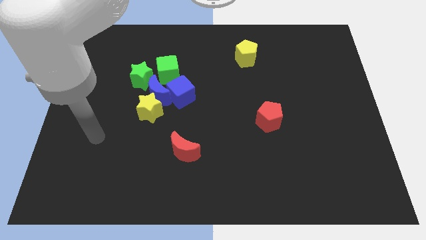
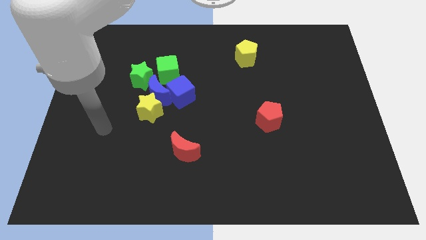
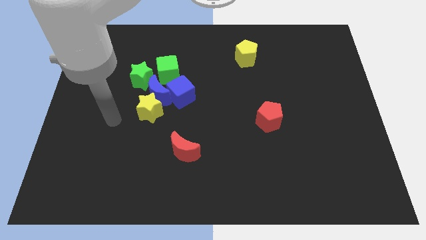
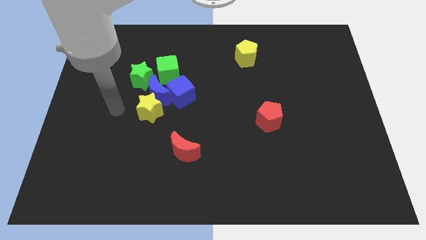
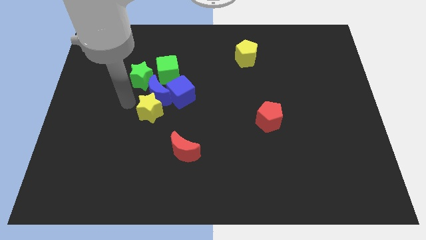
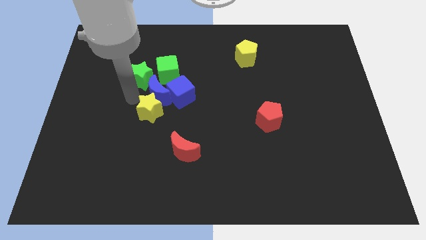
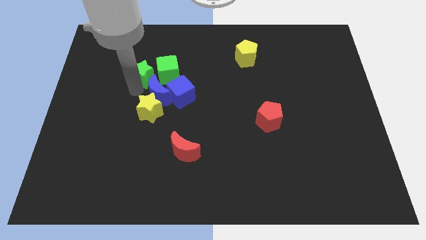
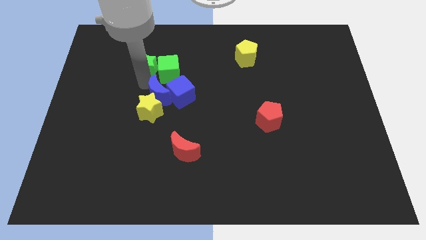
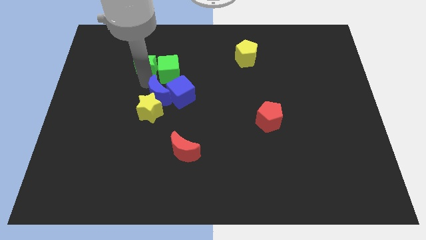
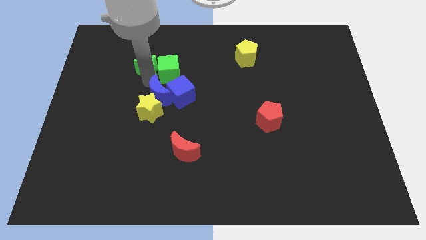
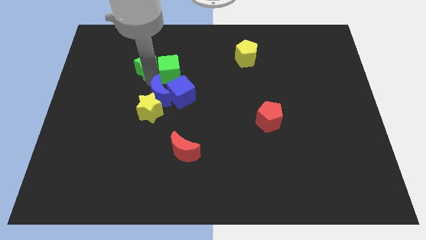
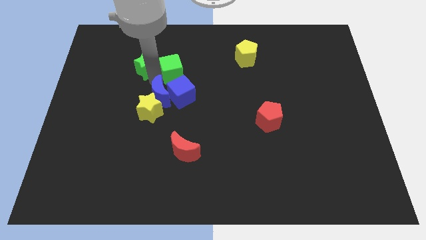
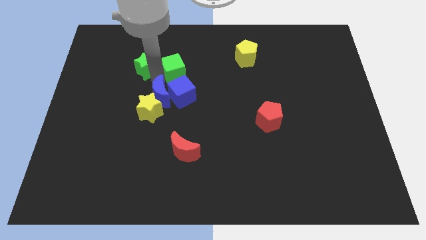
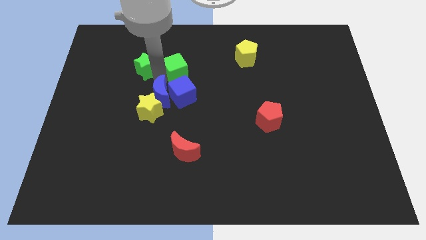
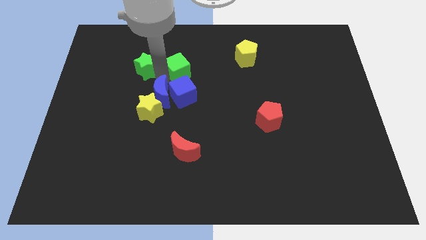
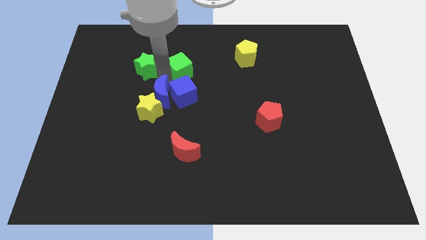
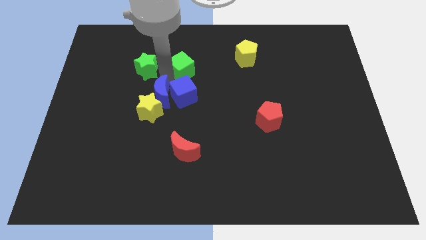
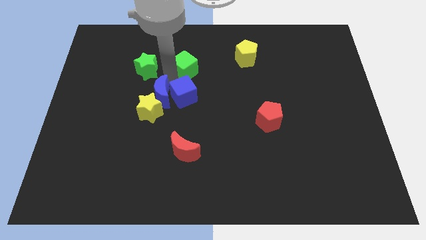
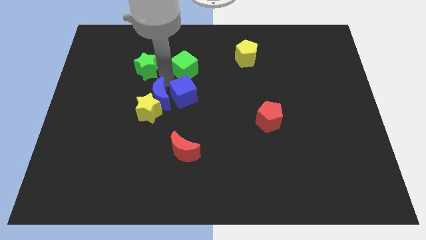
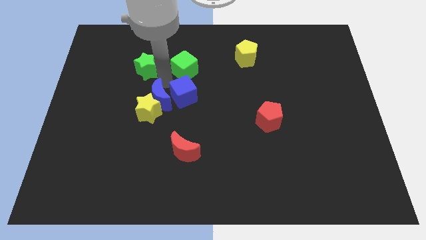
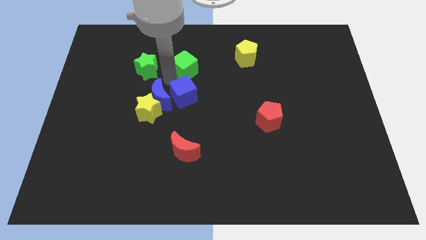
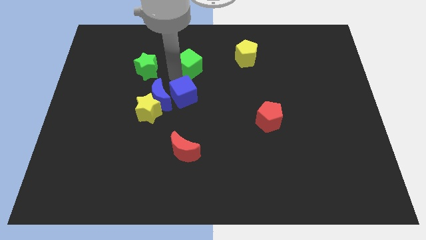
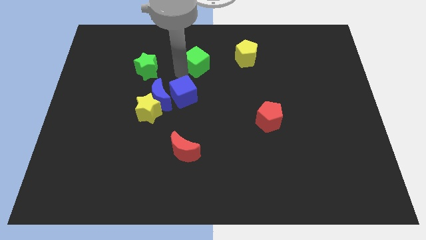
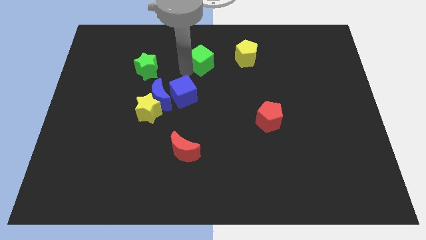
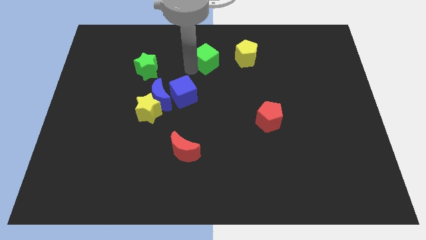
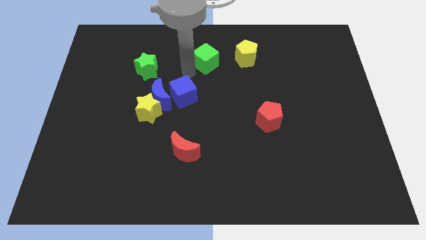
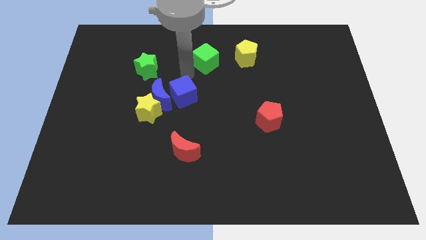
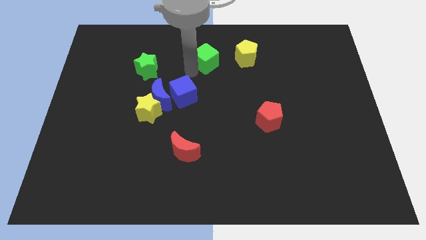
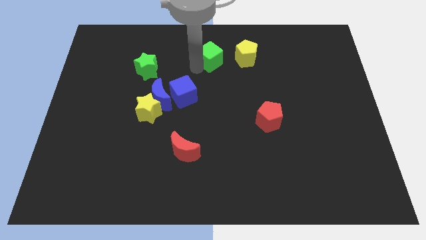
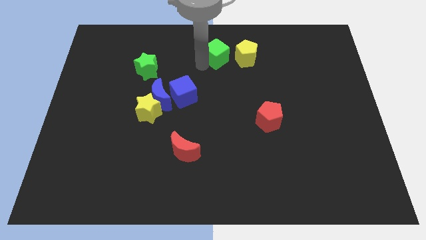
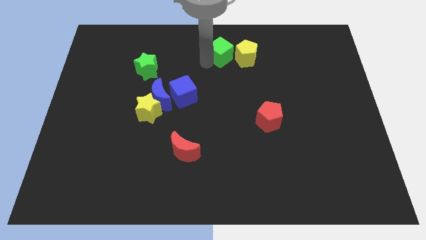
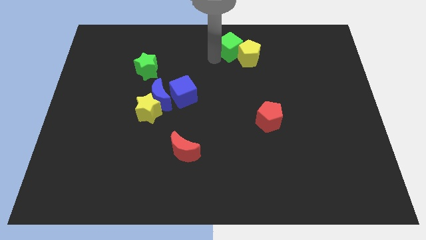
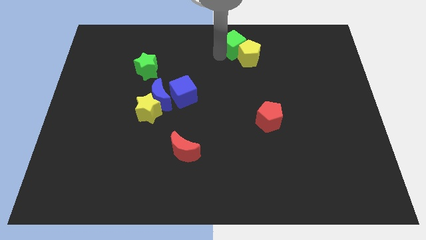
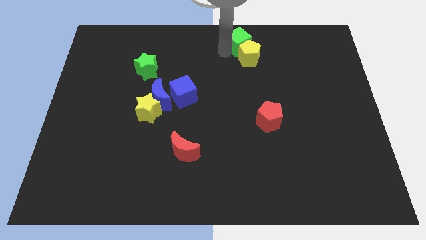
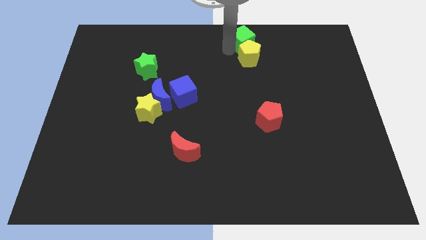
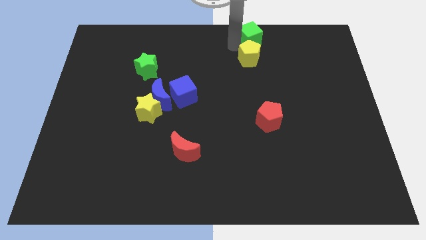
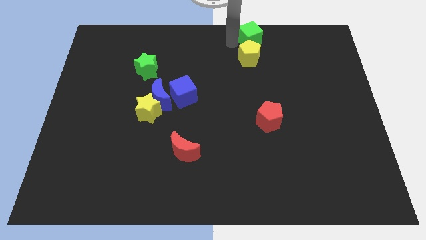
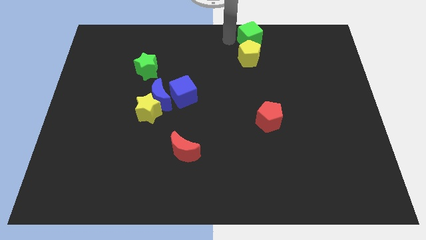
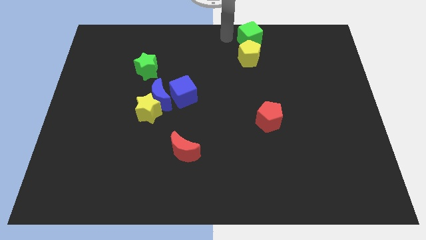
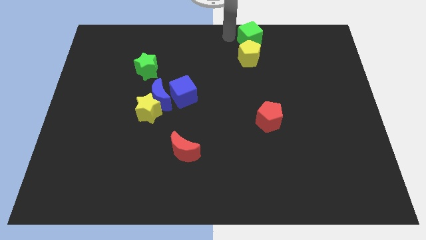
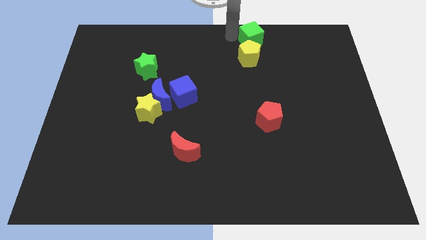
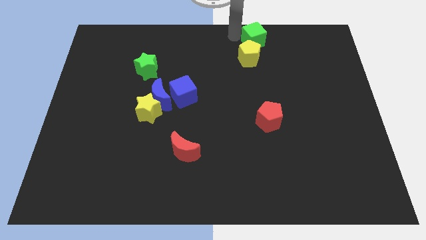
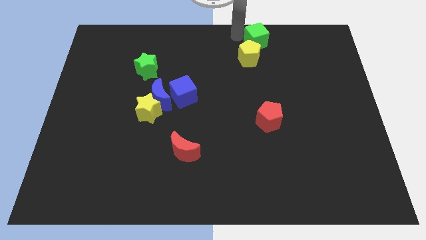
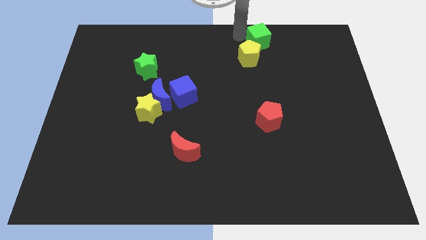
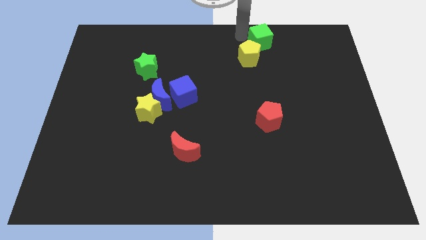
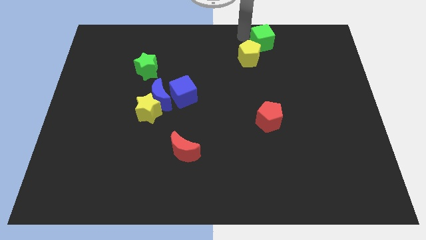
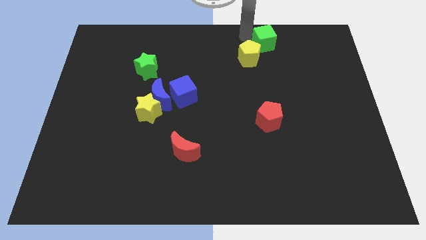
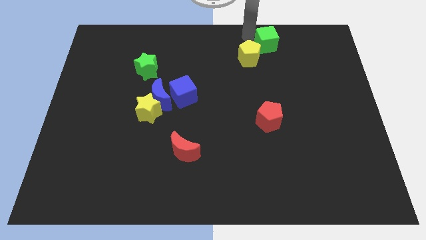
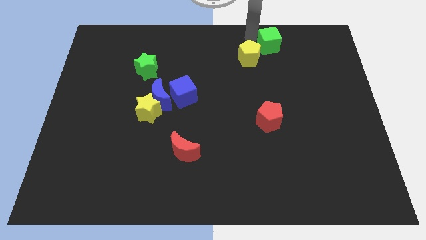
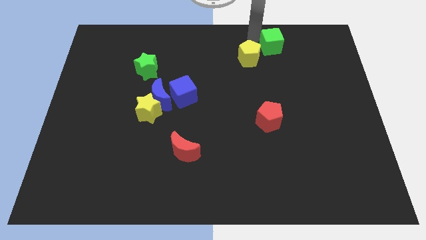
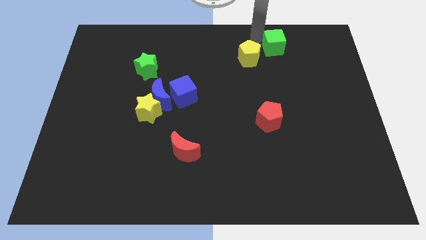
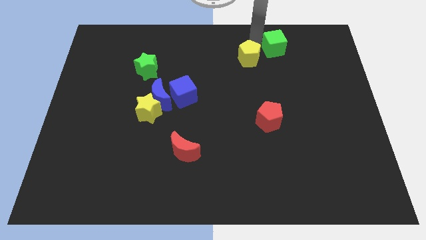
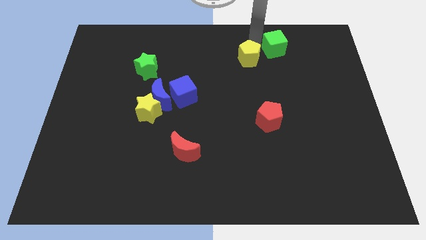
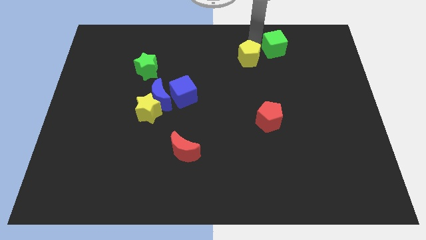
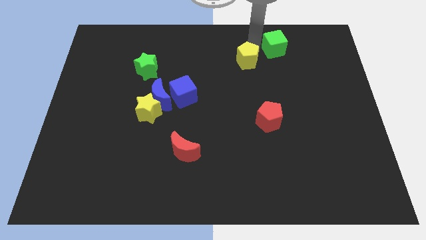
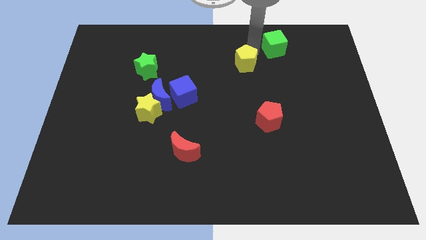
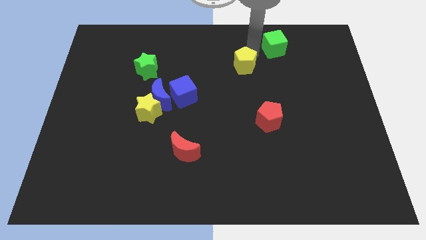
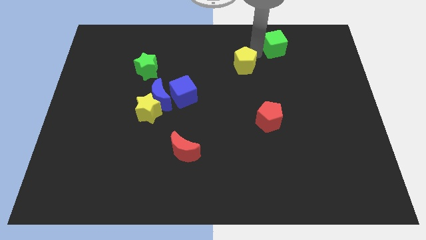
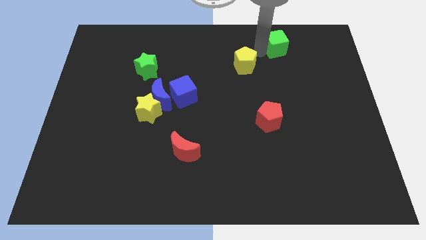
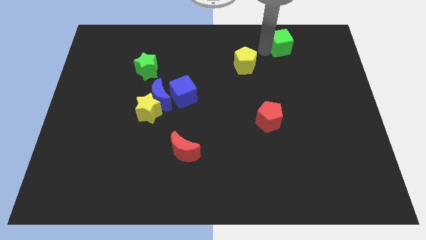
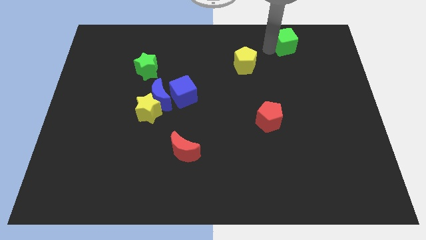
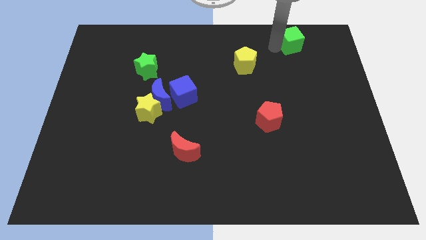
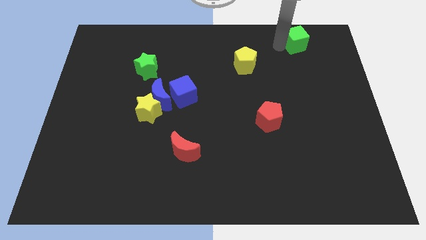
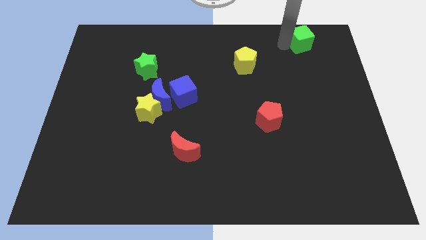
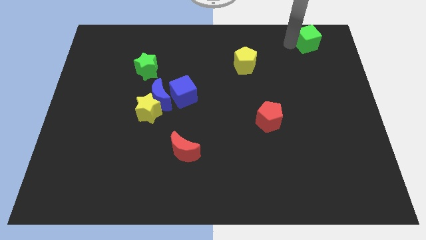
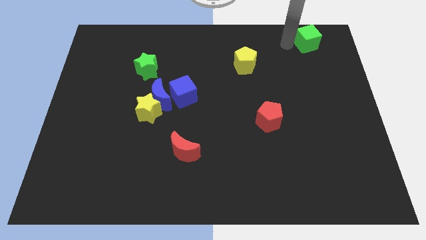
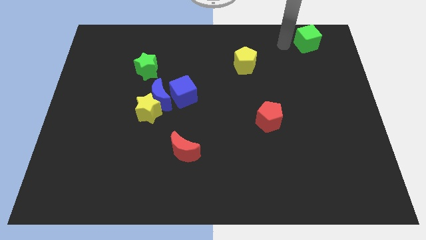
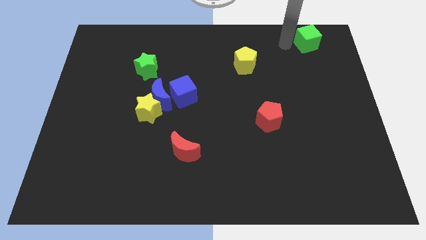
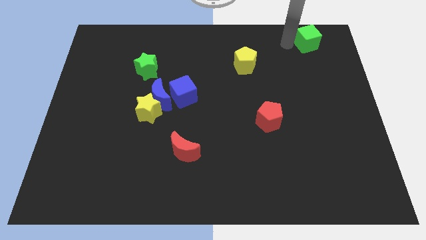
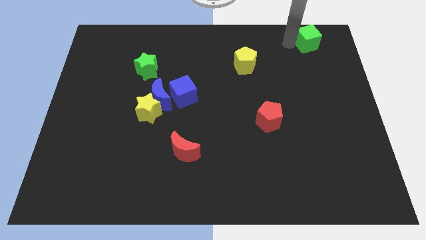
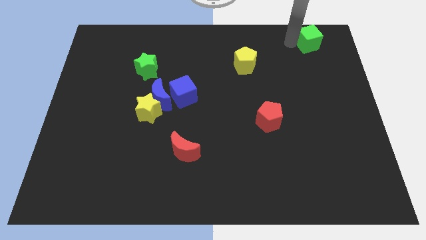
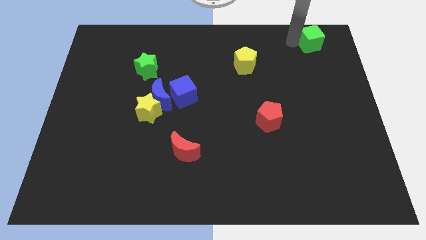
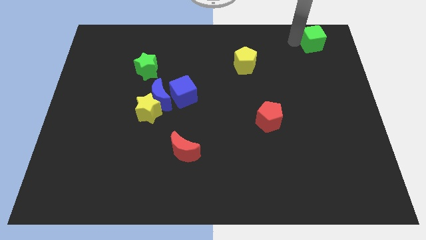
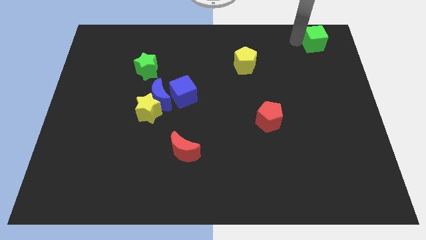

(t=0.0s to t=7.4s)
move the green cube to the upper right corner

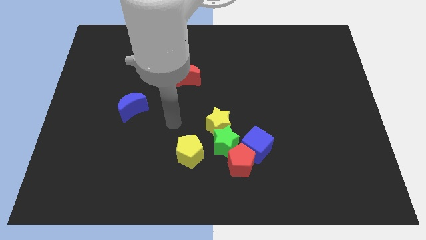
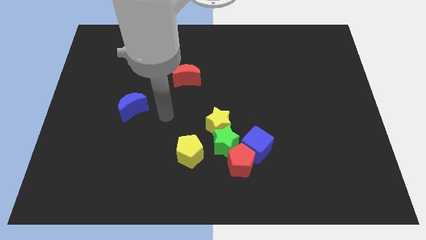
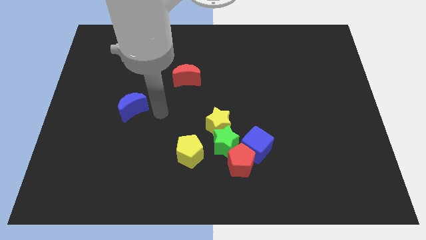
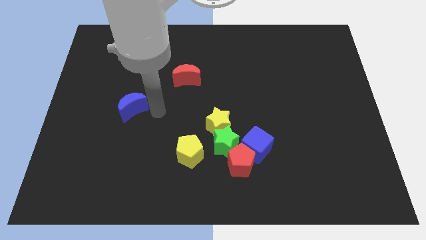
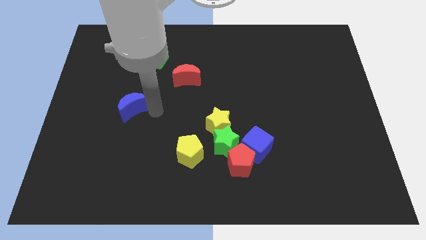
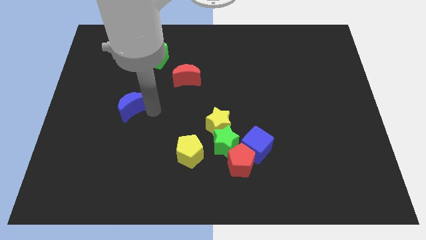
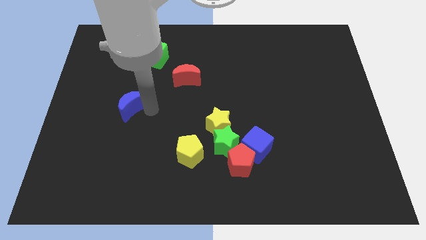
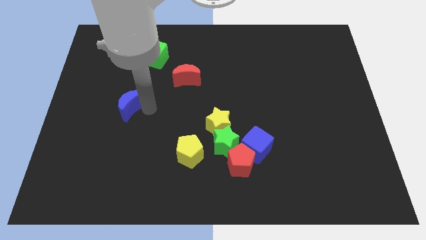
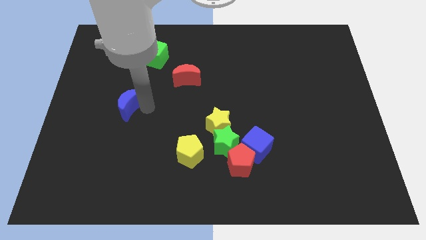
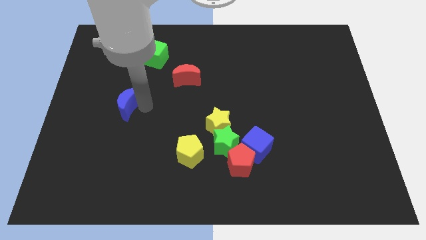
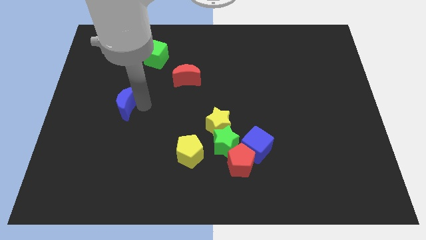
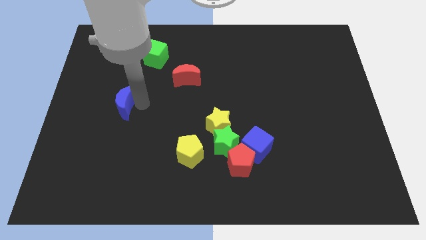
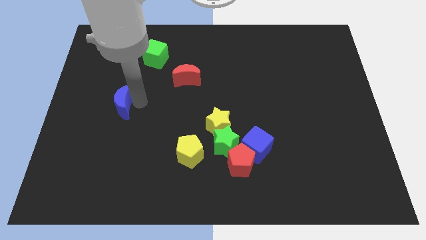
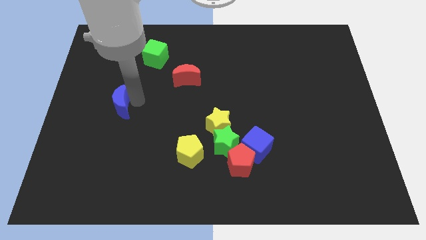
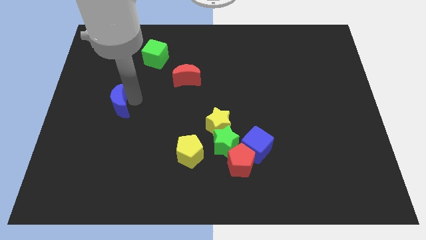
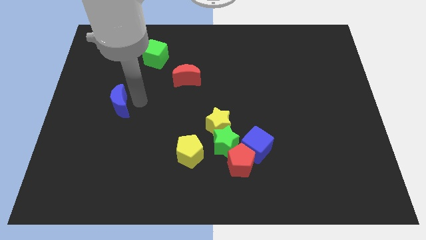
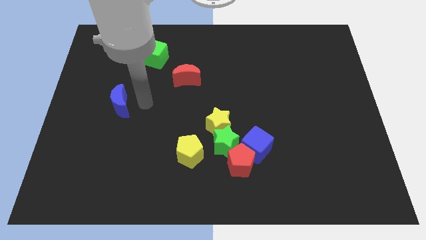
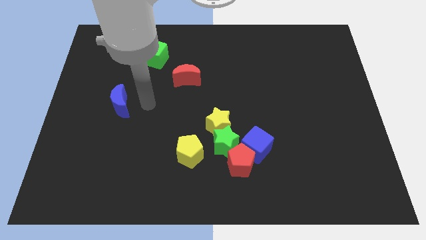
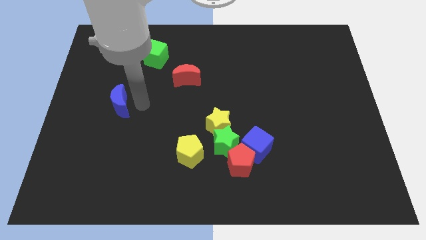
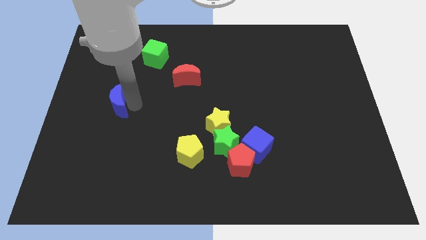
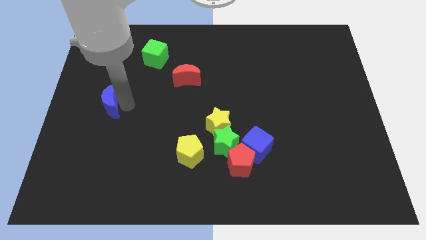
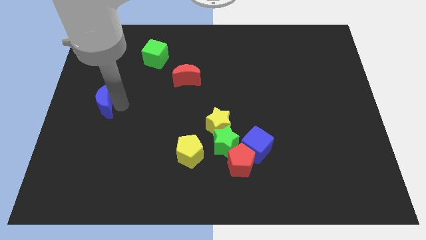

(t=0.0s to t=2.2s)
move the blue moon to the left side of the board
